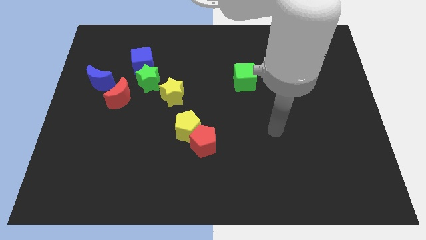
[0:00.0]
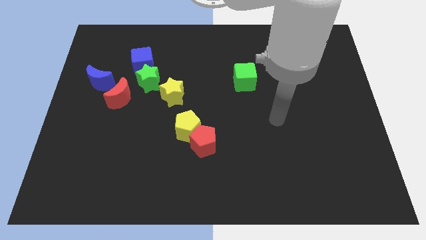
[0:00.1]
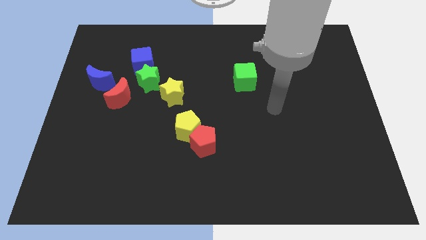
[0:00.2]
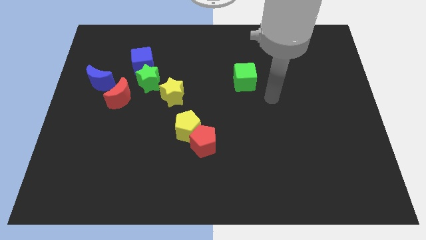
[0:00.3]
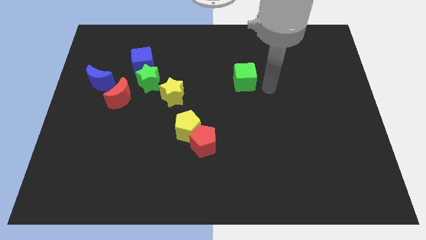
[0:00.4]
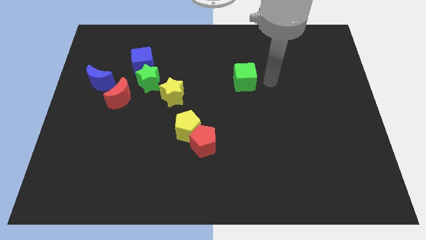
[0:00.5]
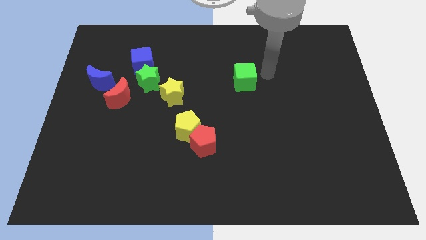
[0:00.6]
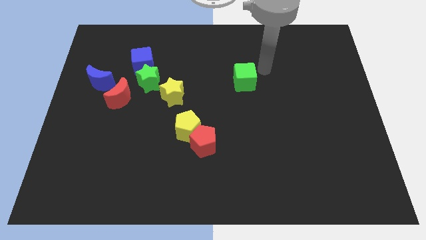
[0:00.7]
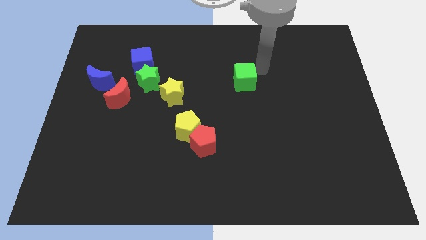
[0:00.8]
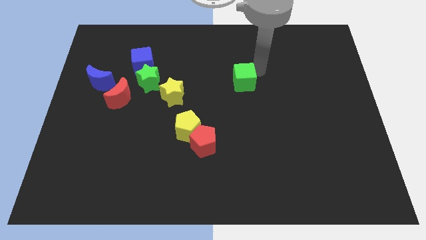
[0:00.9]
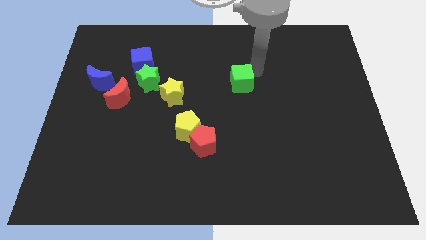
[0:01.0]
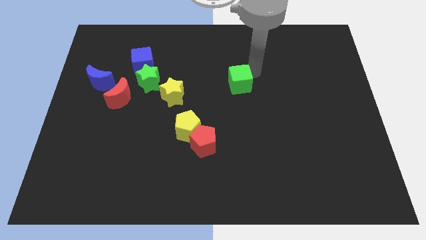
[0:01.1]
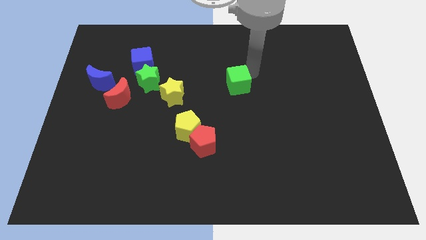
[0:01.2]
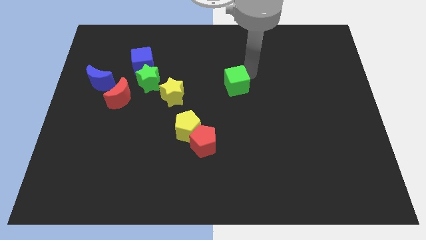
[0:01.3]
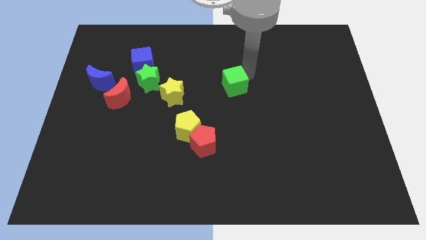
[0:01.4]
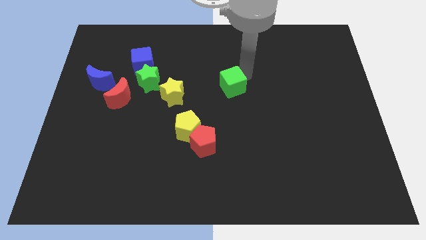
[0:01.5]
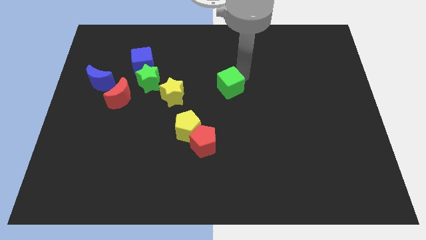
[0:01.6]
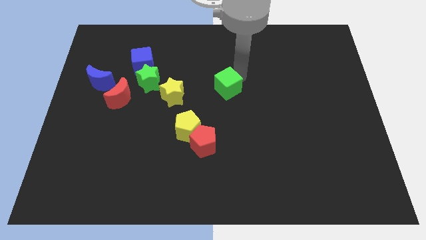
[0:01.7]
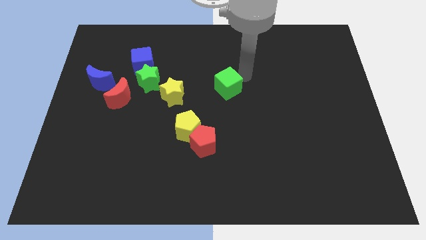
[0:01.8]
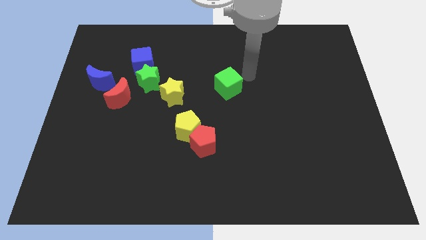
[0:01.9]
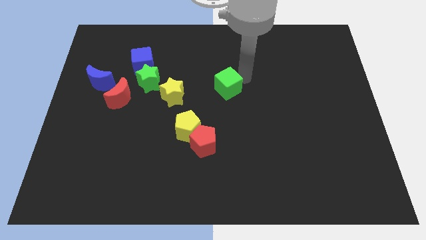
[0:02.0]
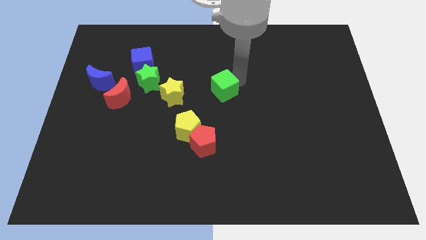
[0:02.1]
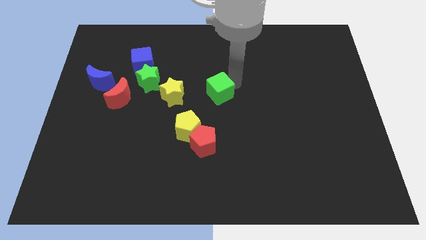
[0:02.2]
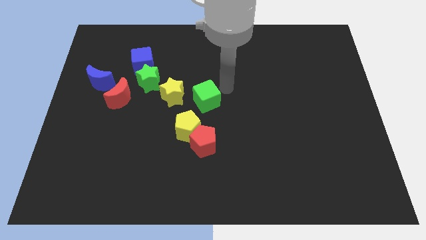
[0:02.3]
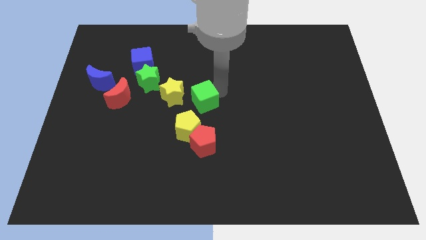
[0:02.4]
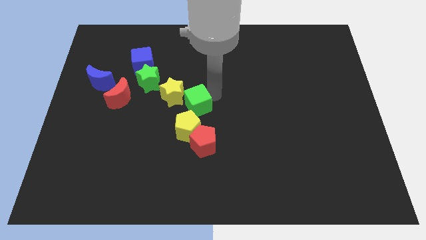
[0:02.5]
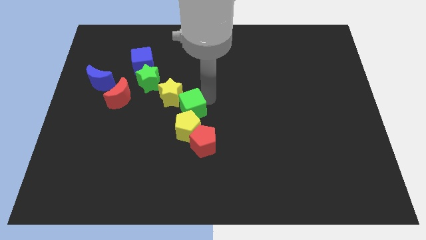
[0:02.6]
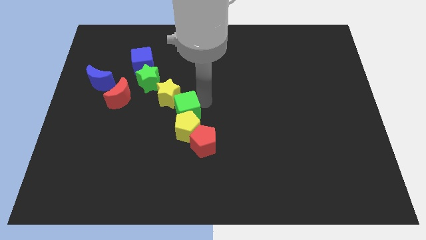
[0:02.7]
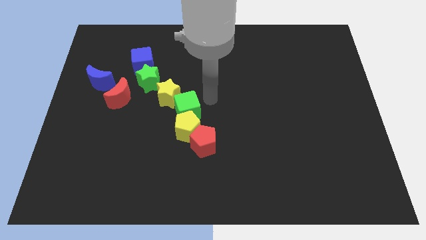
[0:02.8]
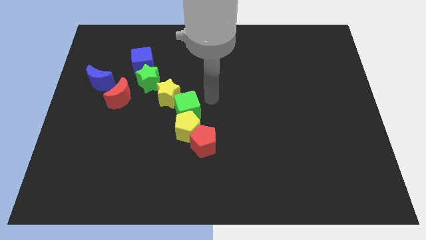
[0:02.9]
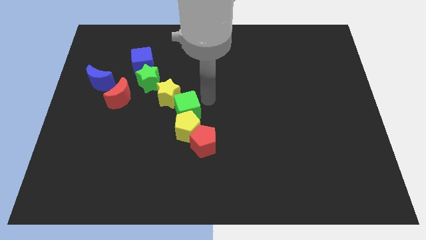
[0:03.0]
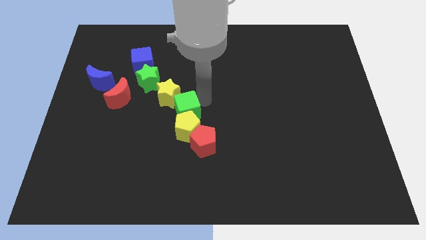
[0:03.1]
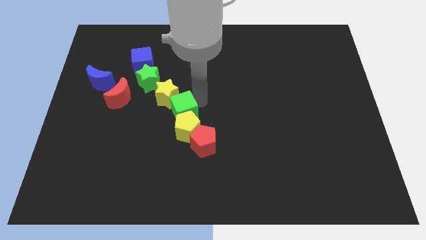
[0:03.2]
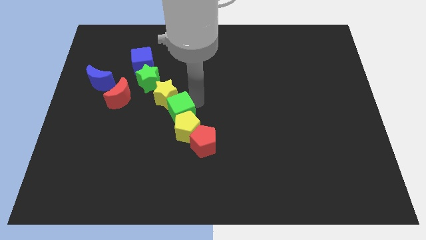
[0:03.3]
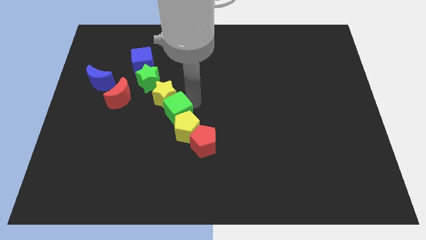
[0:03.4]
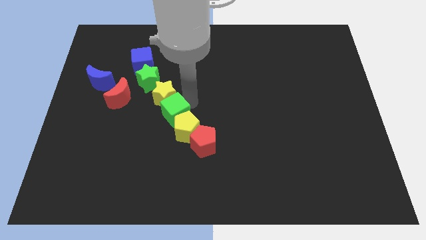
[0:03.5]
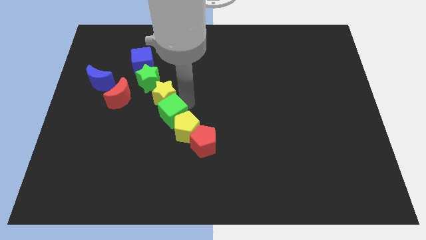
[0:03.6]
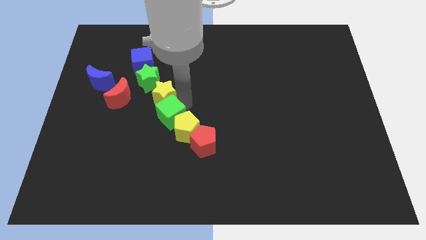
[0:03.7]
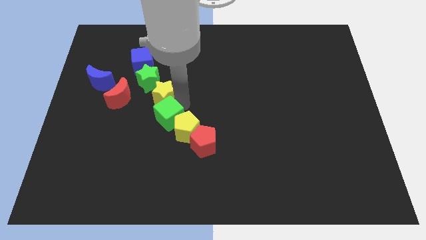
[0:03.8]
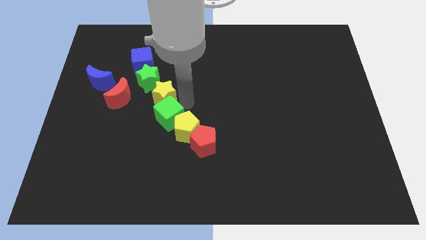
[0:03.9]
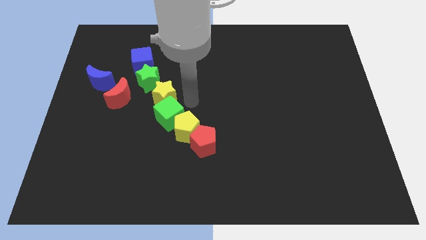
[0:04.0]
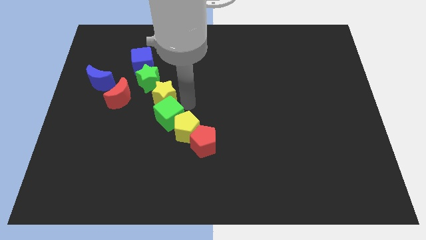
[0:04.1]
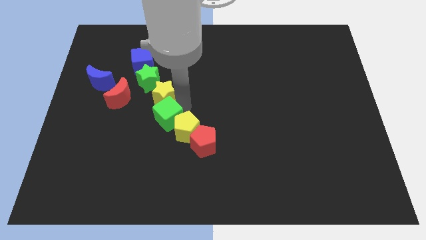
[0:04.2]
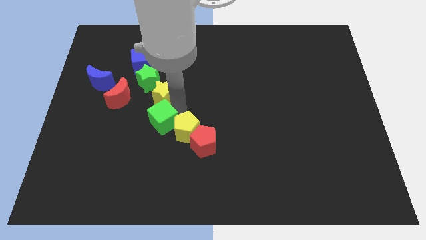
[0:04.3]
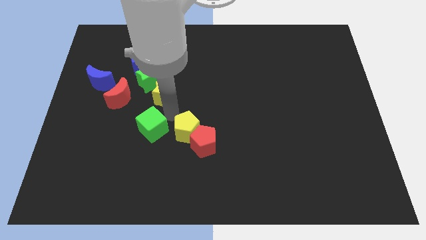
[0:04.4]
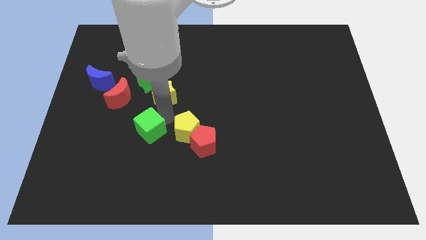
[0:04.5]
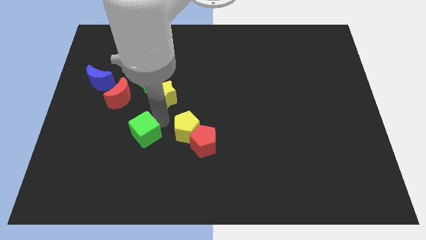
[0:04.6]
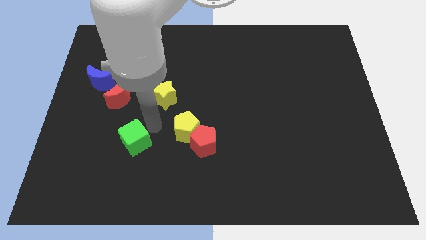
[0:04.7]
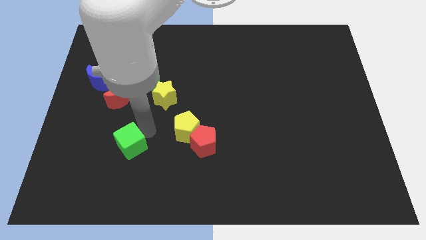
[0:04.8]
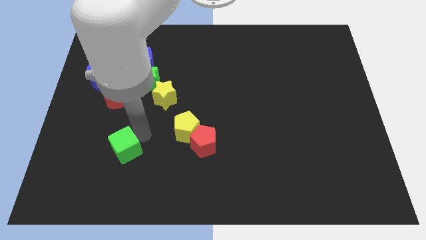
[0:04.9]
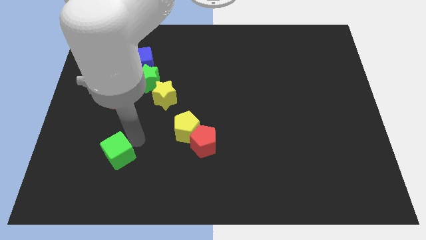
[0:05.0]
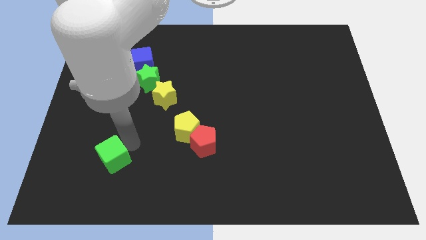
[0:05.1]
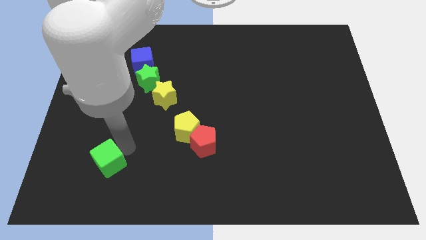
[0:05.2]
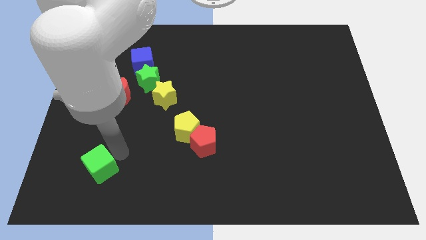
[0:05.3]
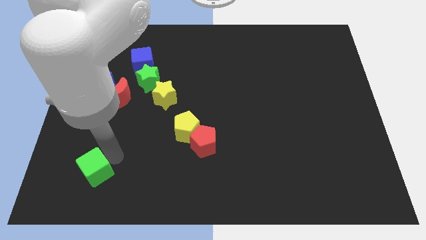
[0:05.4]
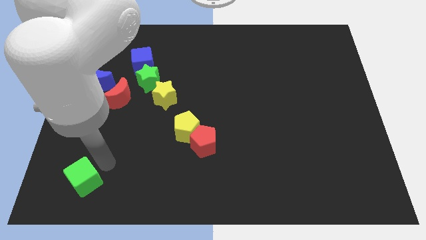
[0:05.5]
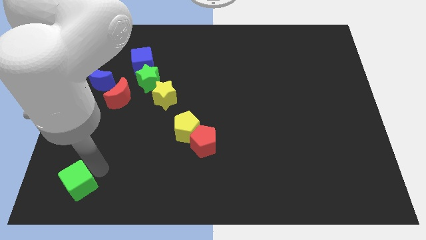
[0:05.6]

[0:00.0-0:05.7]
push the green cube to the bottom left

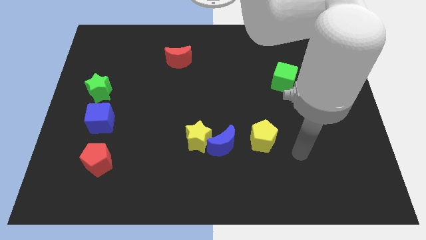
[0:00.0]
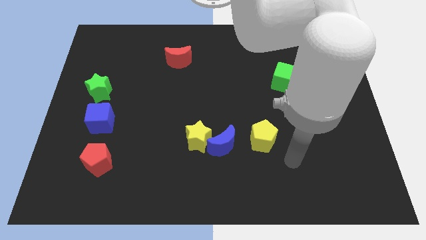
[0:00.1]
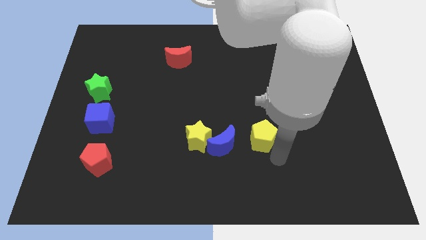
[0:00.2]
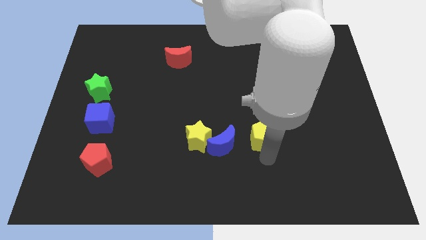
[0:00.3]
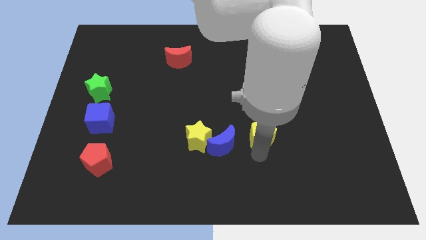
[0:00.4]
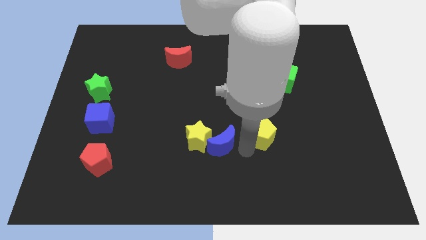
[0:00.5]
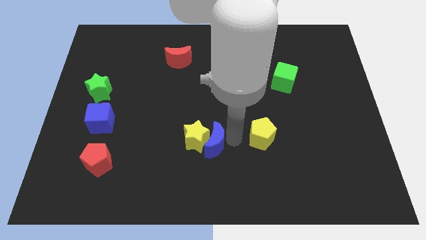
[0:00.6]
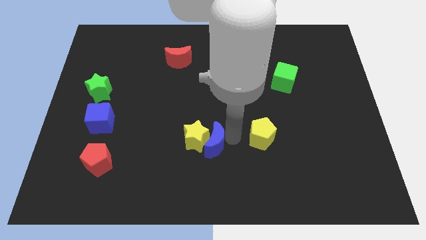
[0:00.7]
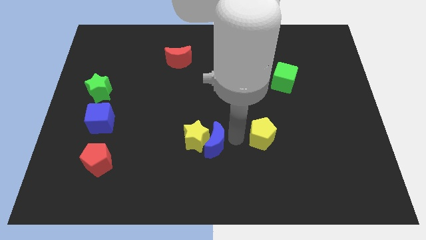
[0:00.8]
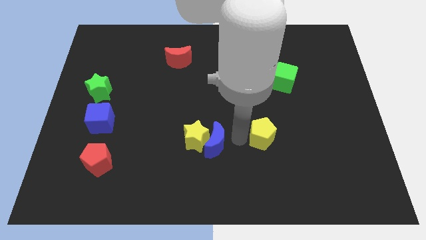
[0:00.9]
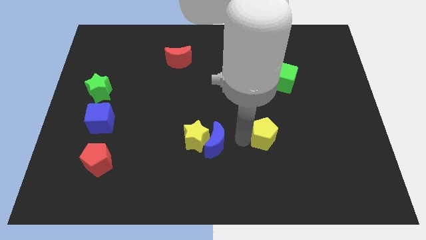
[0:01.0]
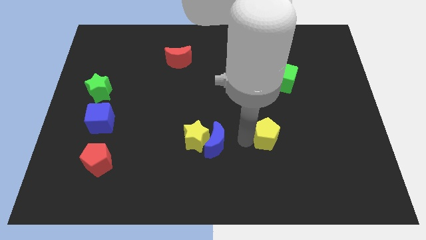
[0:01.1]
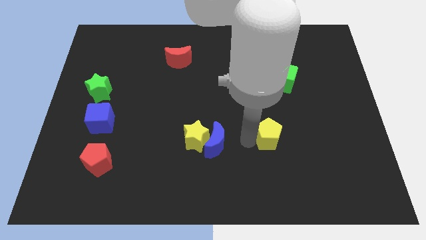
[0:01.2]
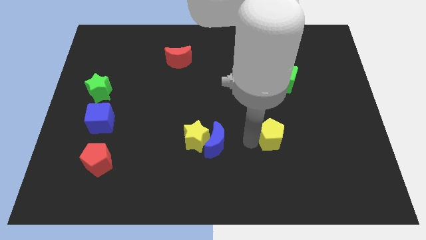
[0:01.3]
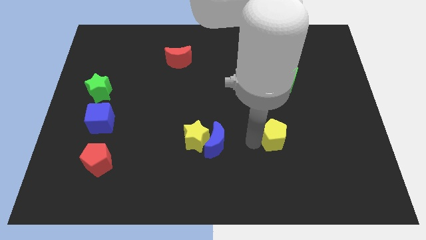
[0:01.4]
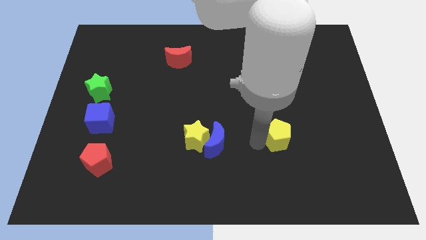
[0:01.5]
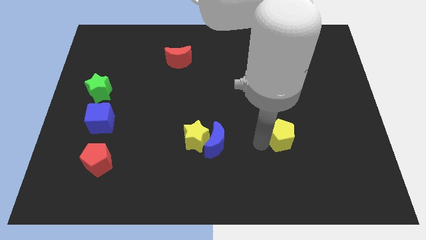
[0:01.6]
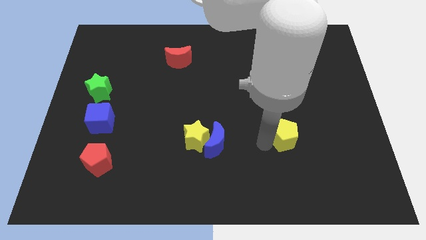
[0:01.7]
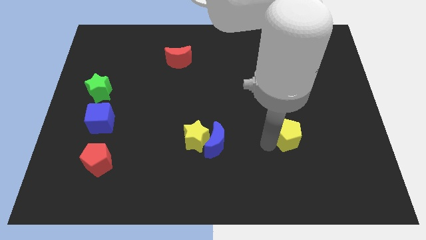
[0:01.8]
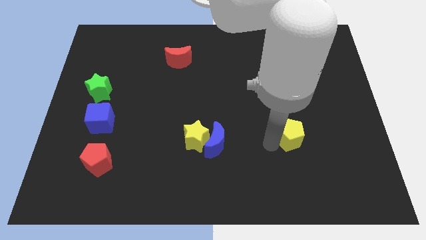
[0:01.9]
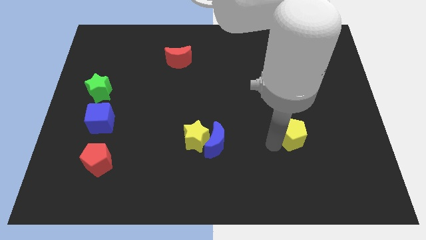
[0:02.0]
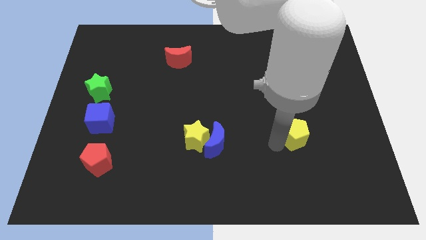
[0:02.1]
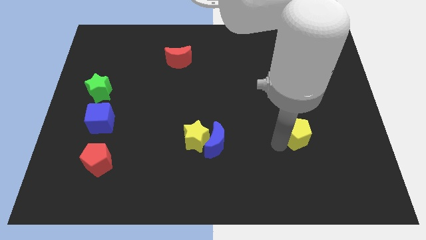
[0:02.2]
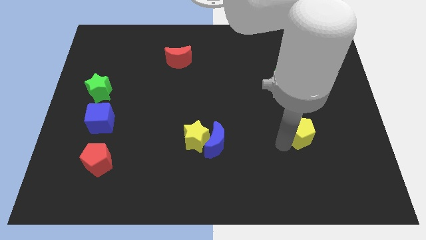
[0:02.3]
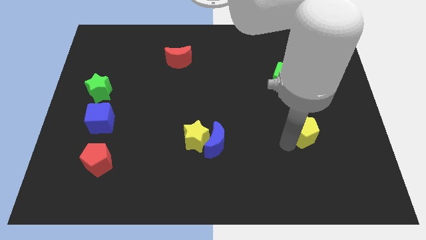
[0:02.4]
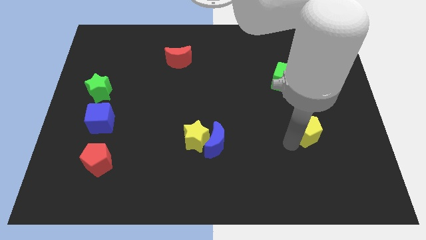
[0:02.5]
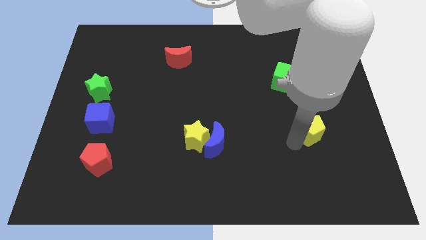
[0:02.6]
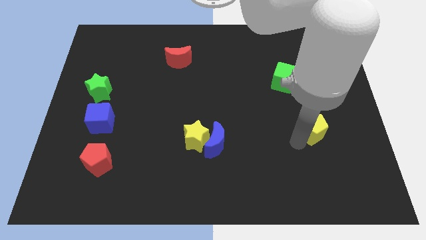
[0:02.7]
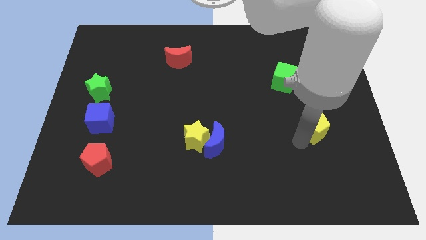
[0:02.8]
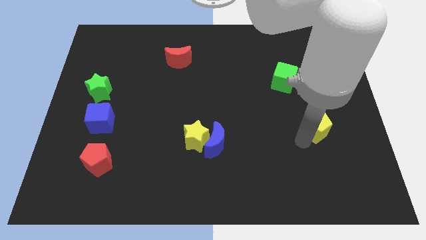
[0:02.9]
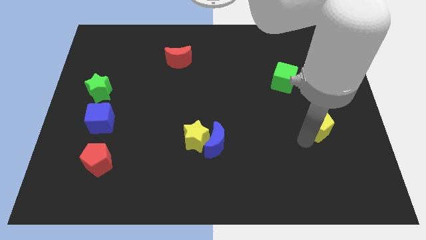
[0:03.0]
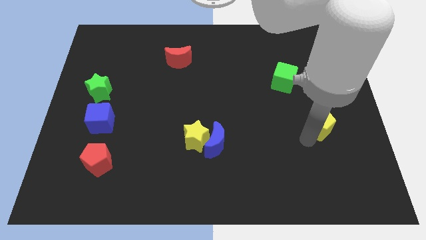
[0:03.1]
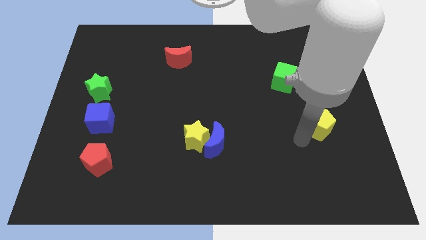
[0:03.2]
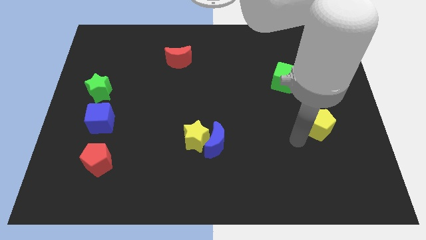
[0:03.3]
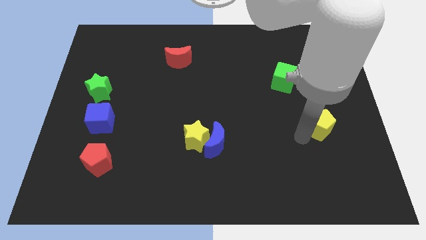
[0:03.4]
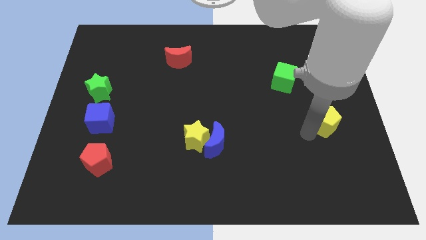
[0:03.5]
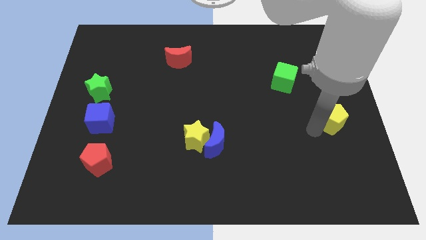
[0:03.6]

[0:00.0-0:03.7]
put the yellow pentagon to the center right
